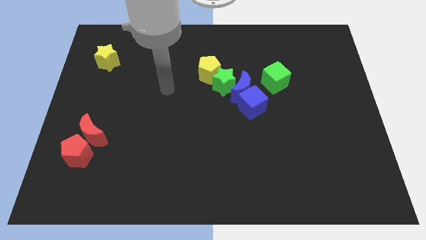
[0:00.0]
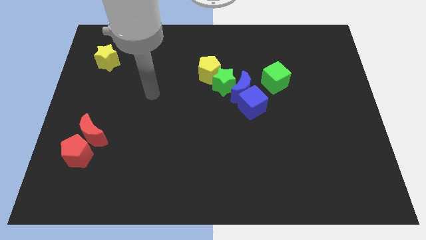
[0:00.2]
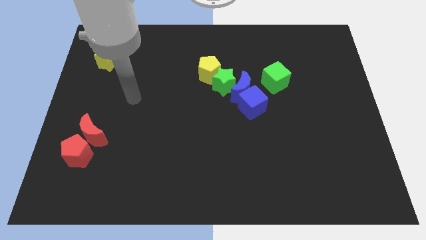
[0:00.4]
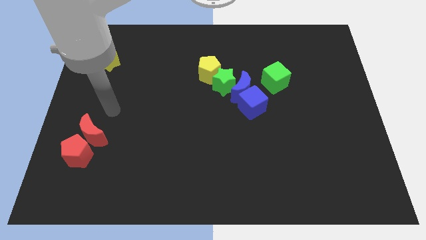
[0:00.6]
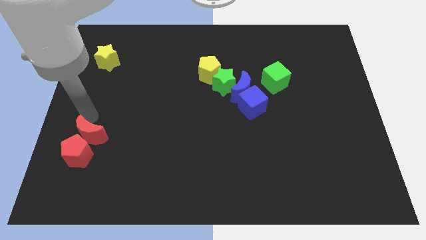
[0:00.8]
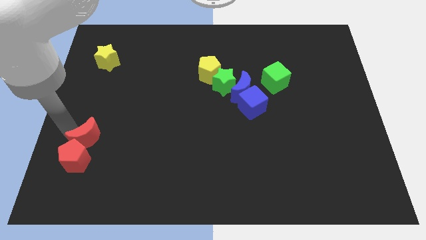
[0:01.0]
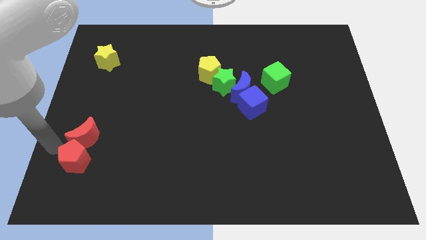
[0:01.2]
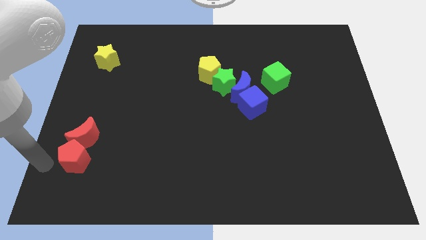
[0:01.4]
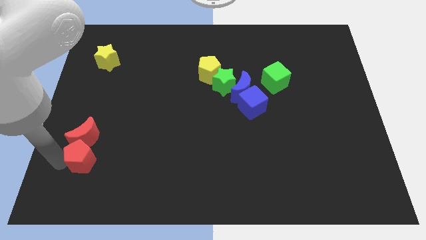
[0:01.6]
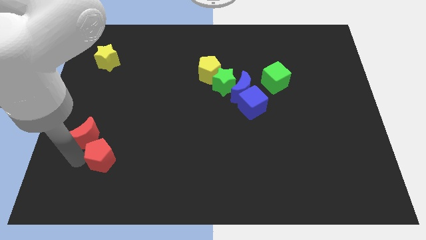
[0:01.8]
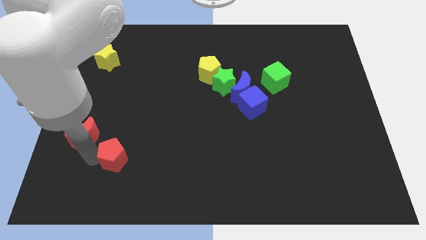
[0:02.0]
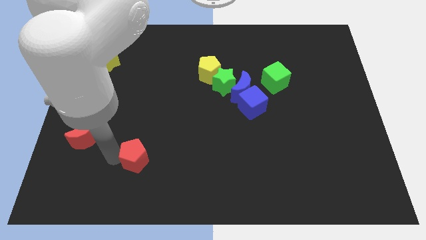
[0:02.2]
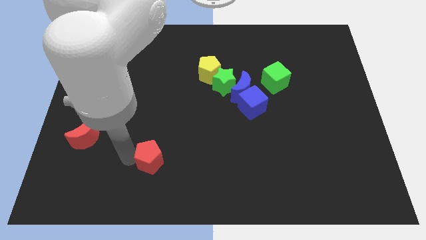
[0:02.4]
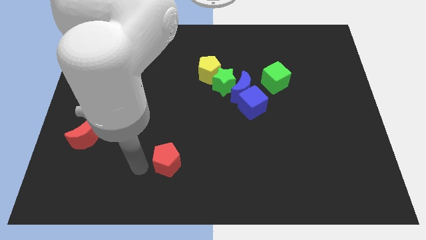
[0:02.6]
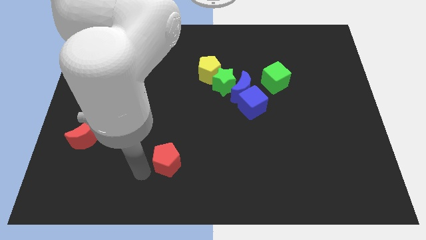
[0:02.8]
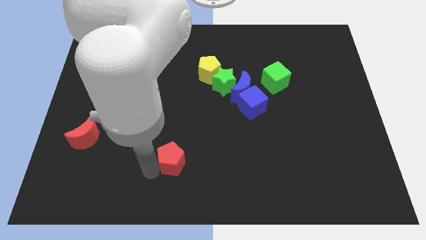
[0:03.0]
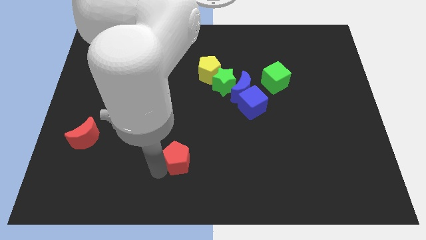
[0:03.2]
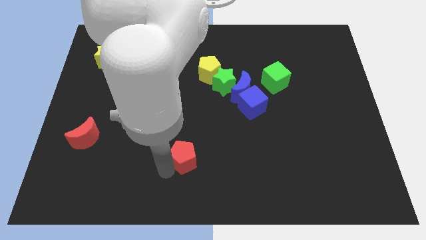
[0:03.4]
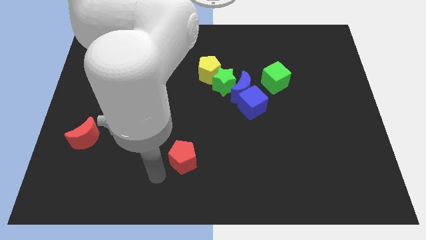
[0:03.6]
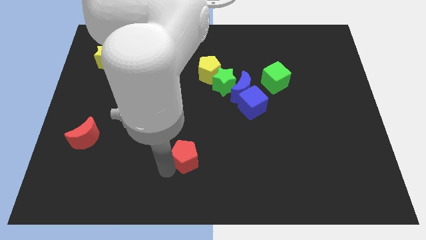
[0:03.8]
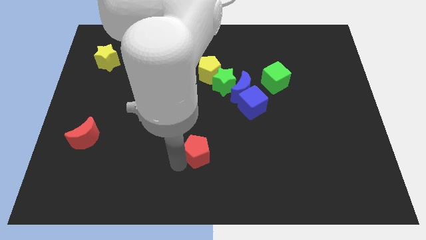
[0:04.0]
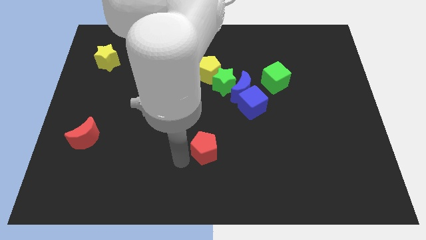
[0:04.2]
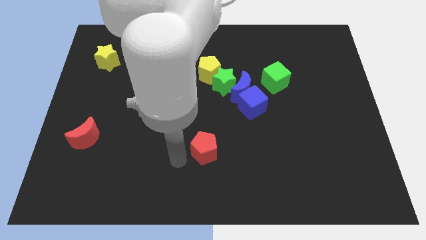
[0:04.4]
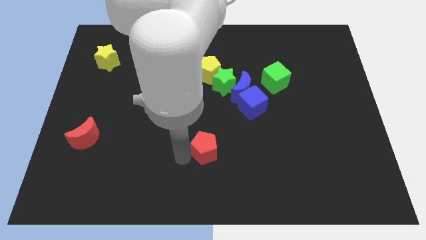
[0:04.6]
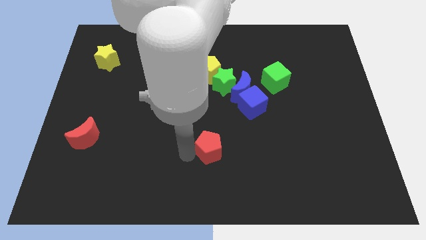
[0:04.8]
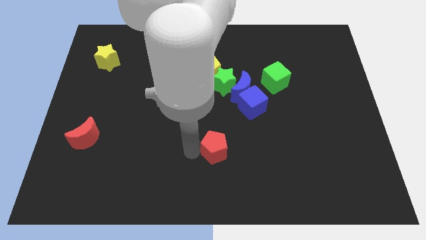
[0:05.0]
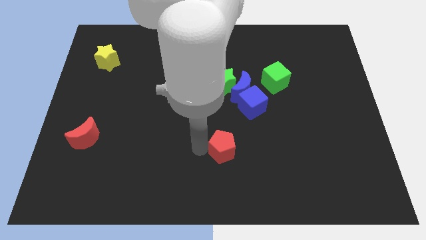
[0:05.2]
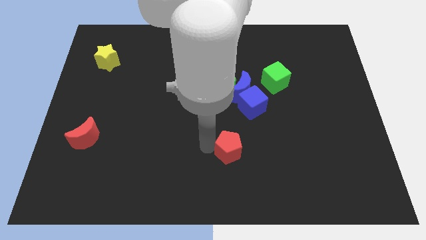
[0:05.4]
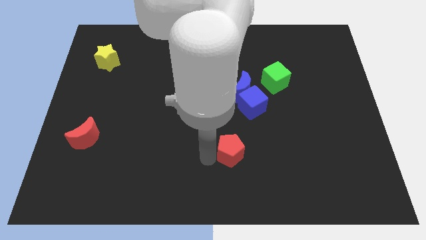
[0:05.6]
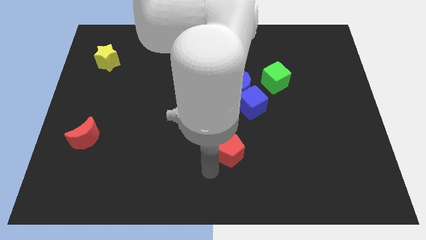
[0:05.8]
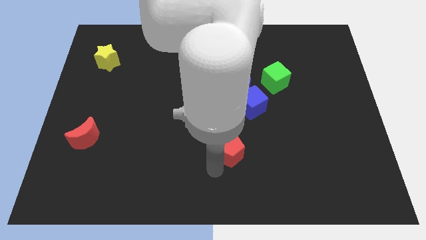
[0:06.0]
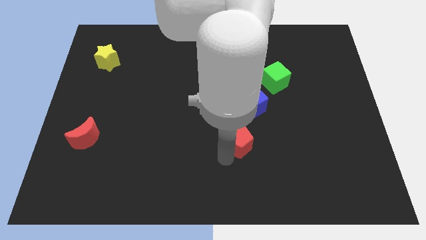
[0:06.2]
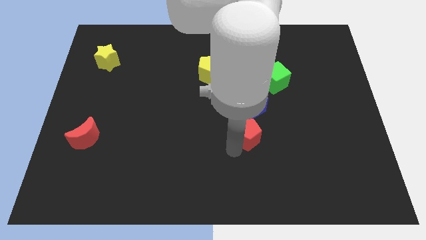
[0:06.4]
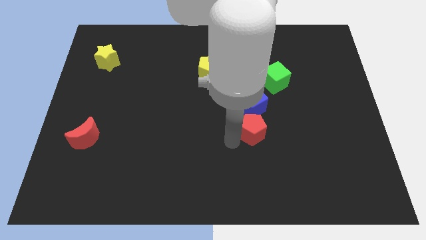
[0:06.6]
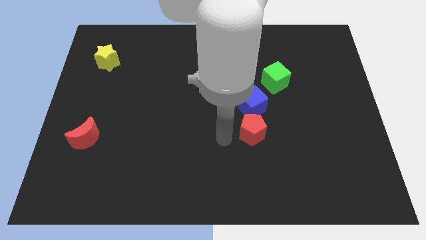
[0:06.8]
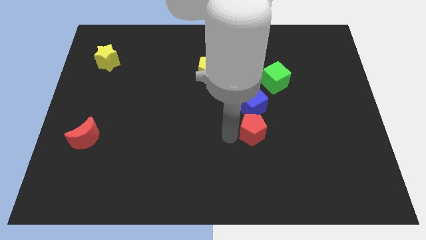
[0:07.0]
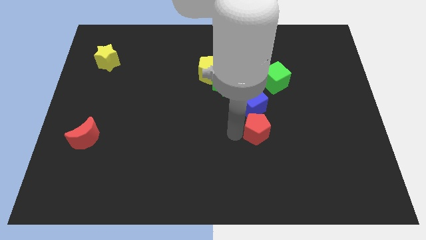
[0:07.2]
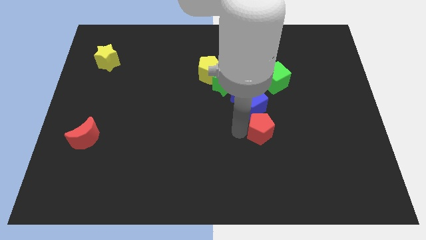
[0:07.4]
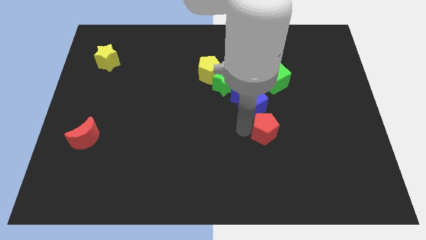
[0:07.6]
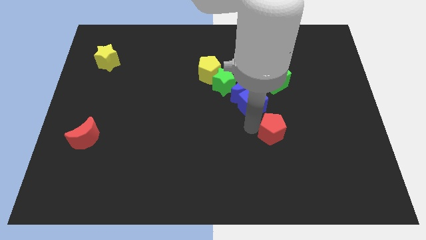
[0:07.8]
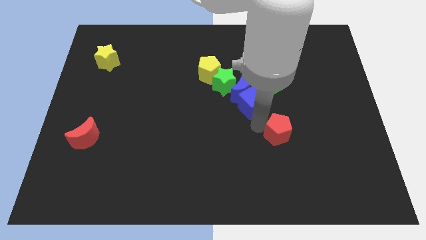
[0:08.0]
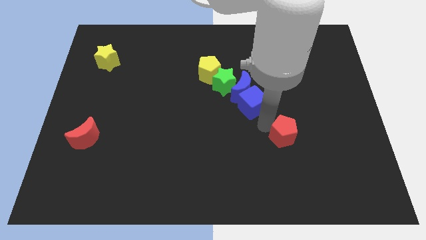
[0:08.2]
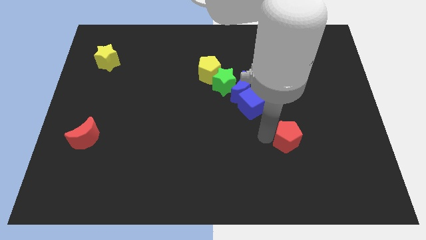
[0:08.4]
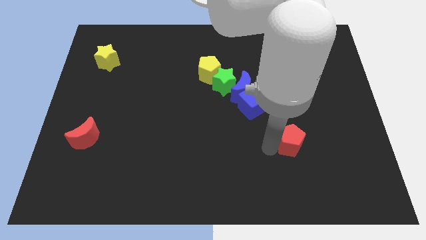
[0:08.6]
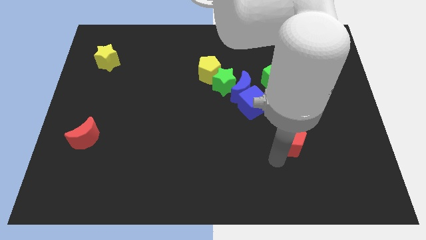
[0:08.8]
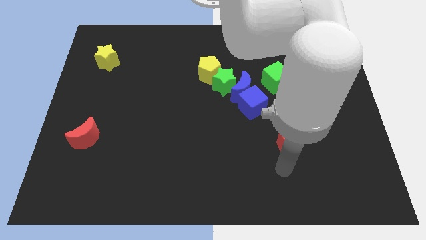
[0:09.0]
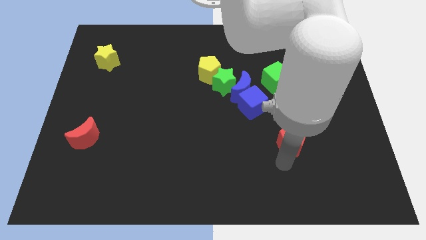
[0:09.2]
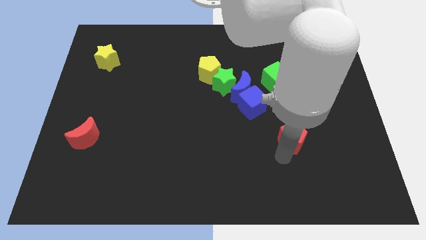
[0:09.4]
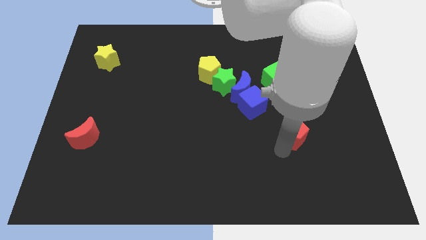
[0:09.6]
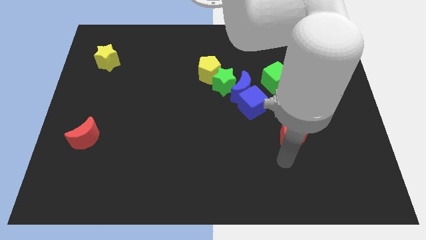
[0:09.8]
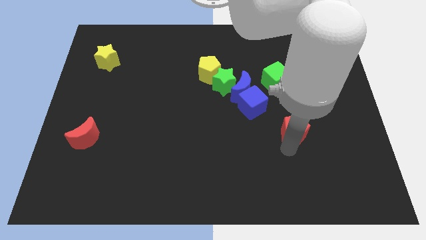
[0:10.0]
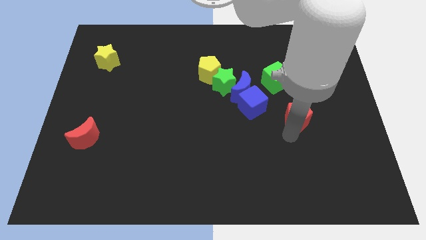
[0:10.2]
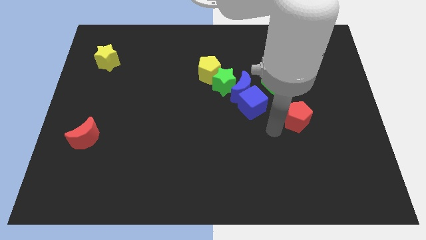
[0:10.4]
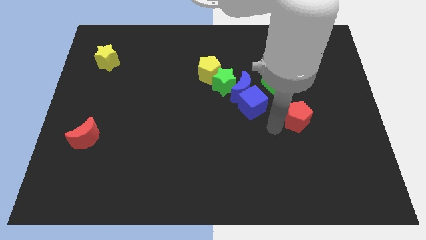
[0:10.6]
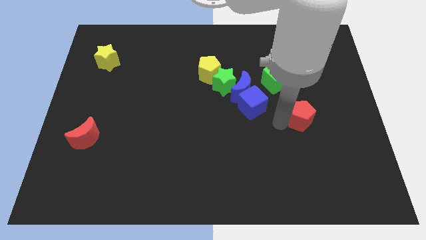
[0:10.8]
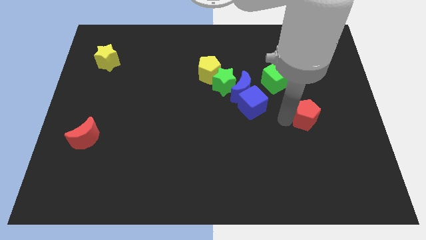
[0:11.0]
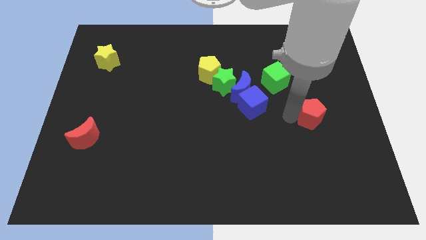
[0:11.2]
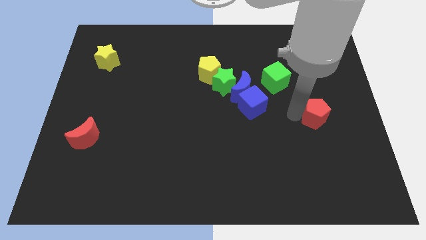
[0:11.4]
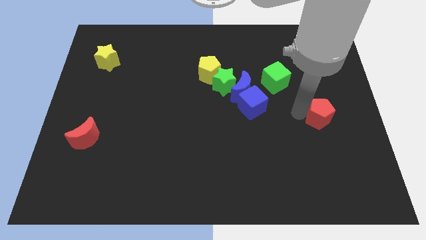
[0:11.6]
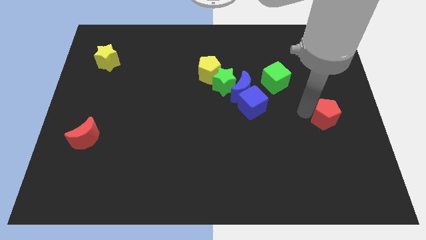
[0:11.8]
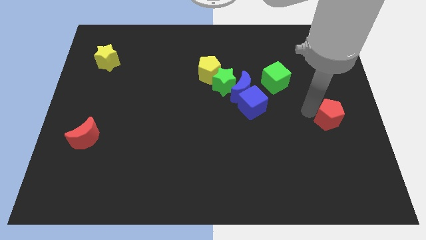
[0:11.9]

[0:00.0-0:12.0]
move the red pentagon to the right side of the board
